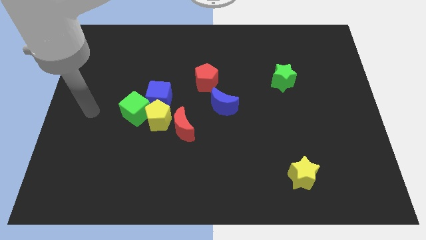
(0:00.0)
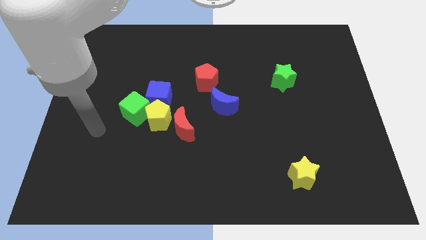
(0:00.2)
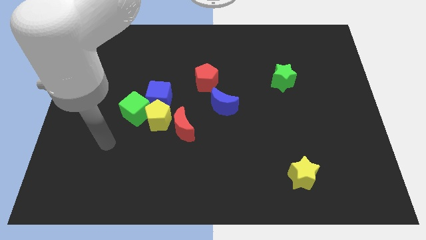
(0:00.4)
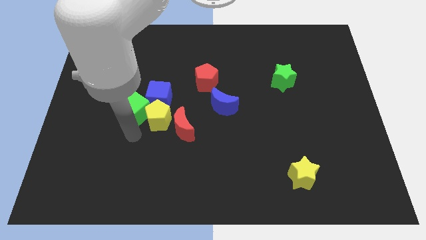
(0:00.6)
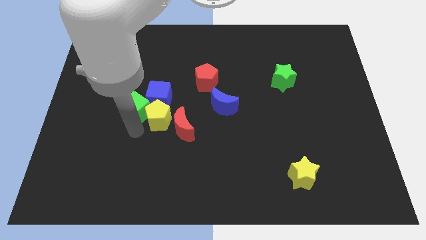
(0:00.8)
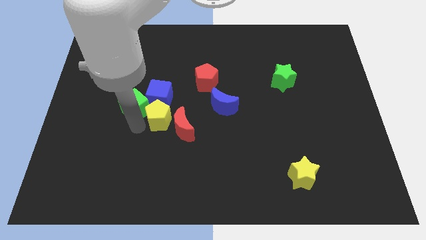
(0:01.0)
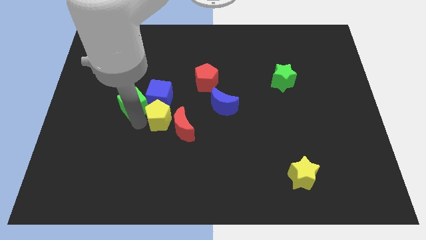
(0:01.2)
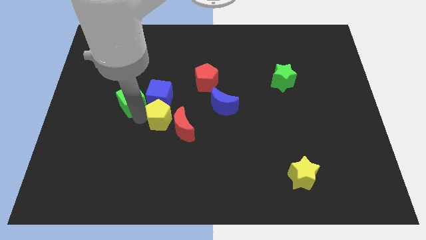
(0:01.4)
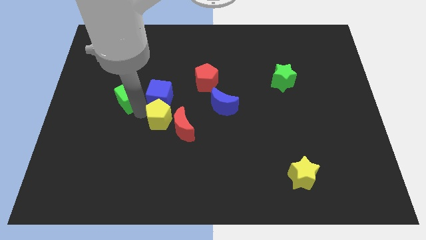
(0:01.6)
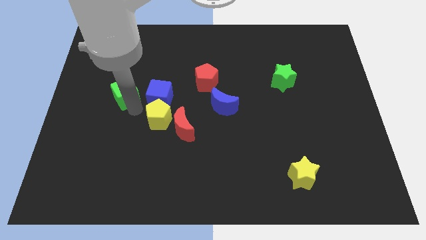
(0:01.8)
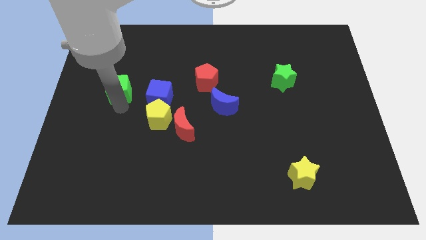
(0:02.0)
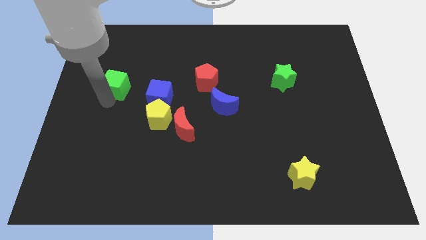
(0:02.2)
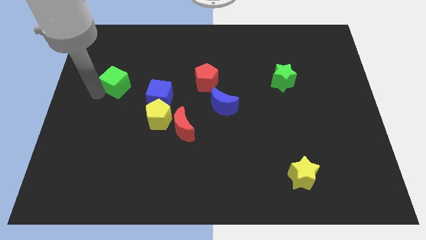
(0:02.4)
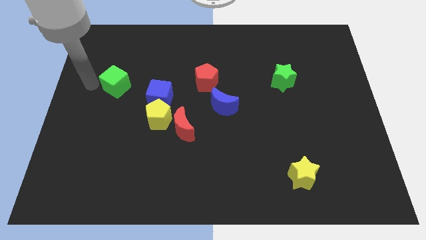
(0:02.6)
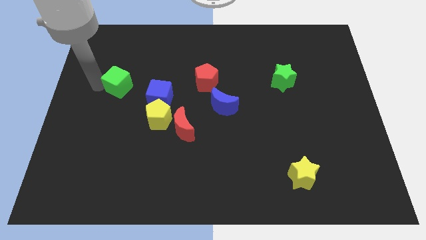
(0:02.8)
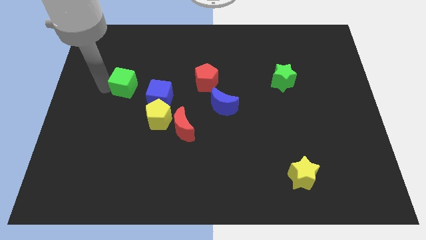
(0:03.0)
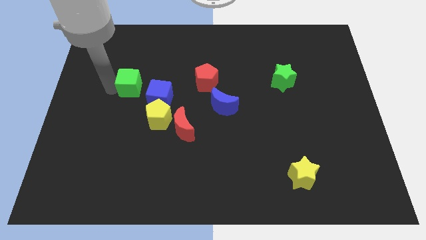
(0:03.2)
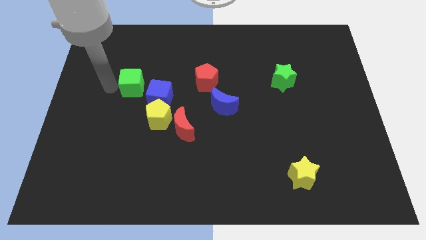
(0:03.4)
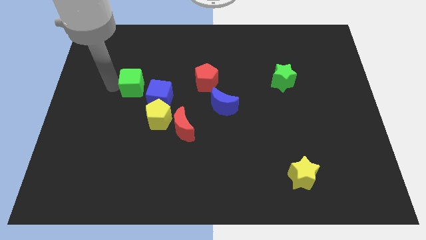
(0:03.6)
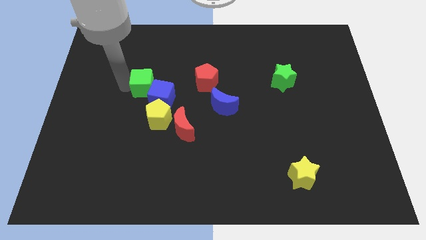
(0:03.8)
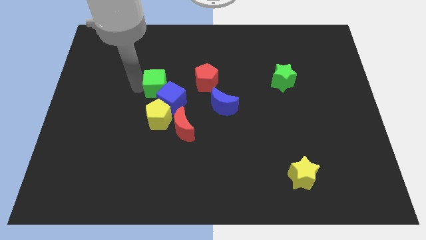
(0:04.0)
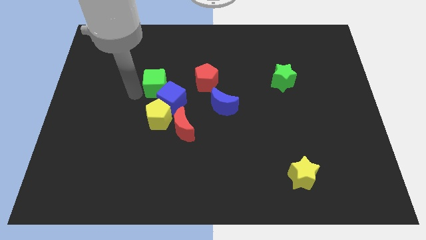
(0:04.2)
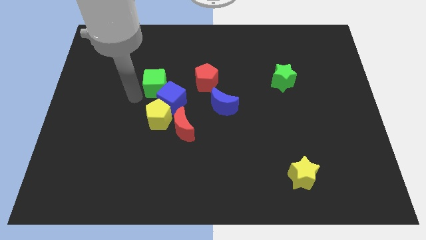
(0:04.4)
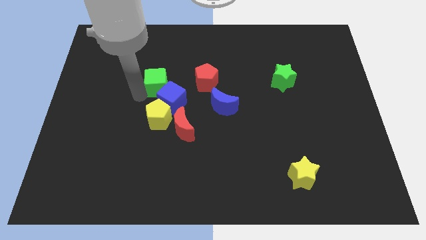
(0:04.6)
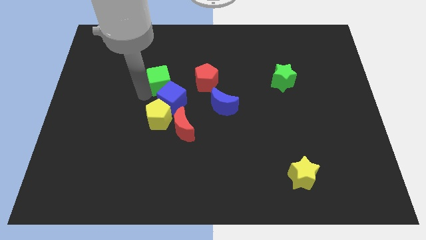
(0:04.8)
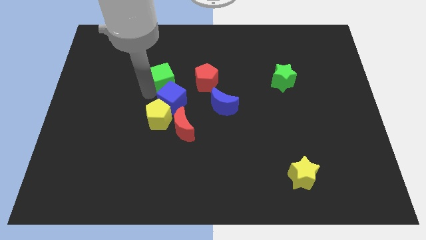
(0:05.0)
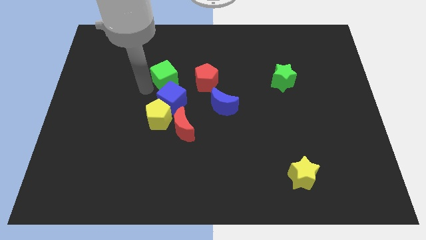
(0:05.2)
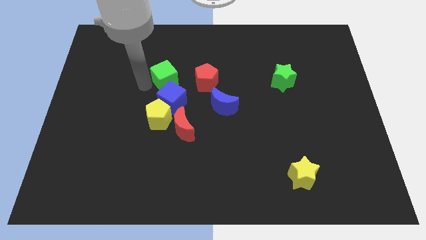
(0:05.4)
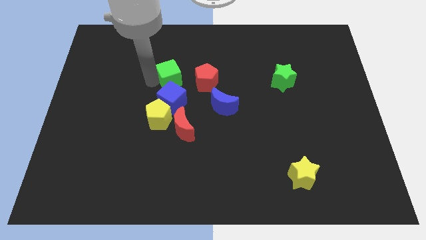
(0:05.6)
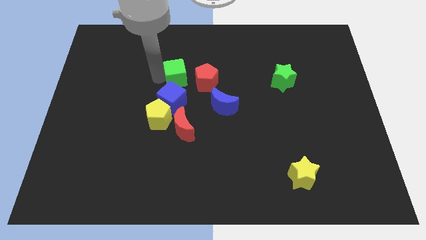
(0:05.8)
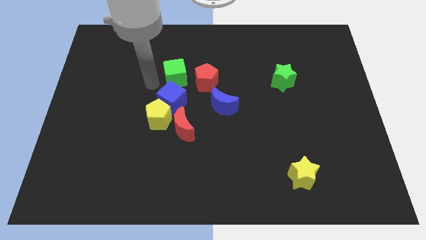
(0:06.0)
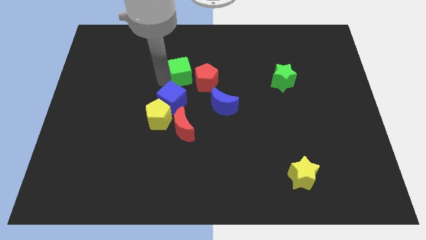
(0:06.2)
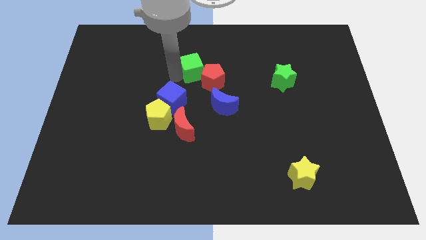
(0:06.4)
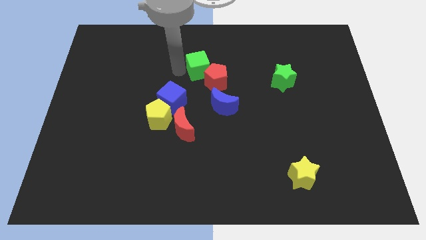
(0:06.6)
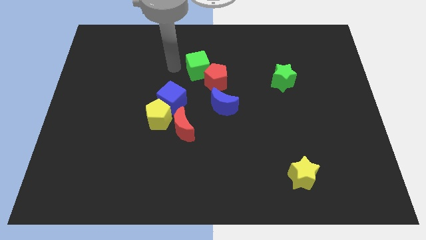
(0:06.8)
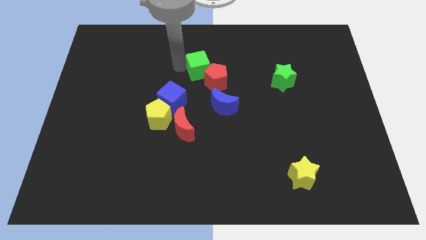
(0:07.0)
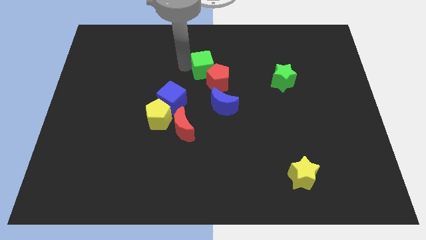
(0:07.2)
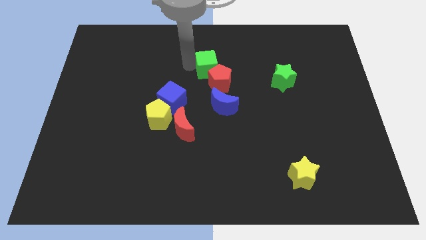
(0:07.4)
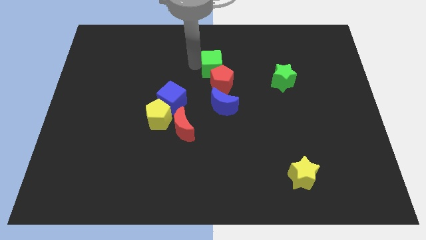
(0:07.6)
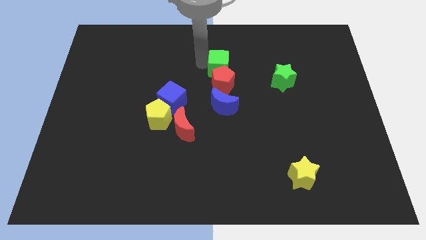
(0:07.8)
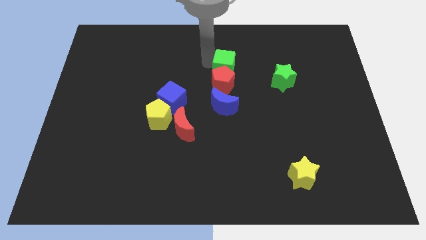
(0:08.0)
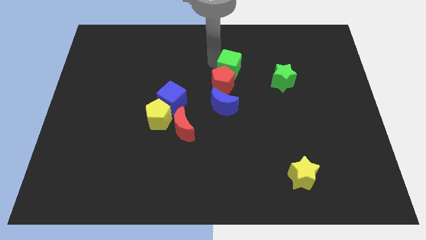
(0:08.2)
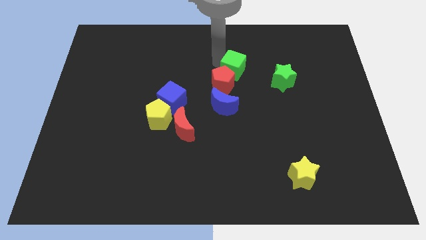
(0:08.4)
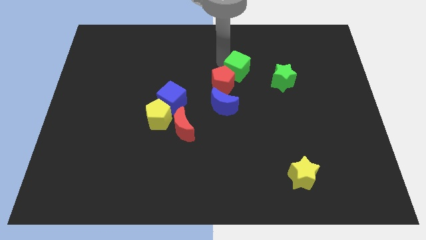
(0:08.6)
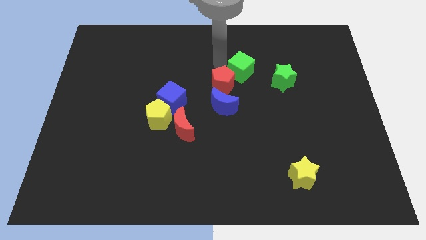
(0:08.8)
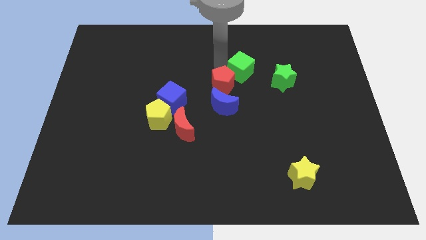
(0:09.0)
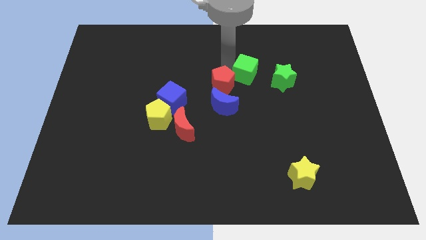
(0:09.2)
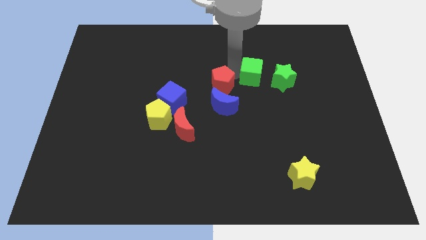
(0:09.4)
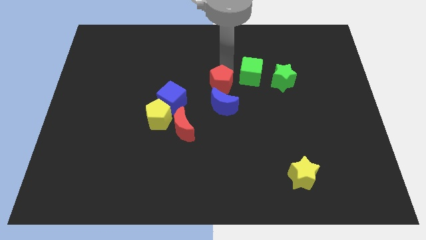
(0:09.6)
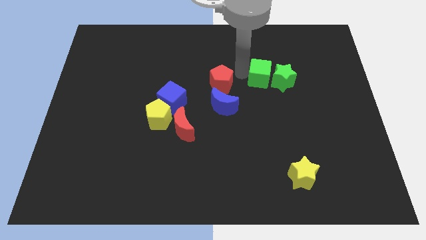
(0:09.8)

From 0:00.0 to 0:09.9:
put the green cube towards the green star

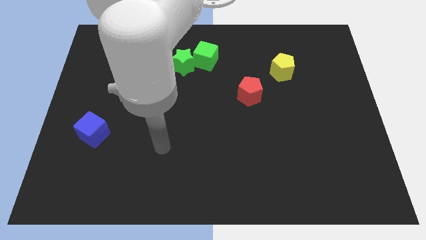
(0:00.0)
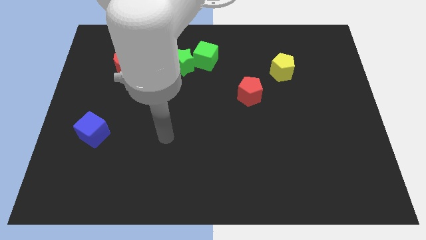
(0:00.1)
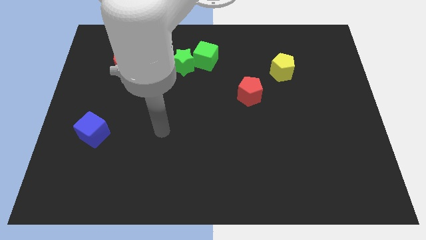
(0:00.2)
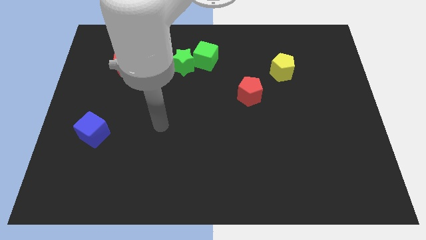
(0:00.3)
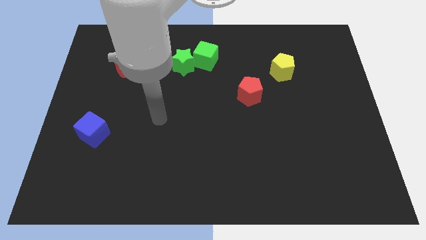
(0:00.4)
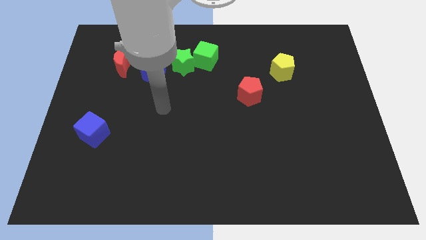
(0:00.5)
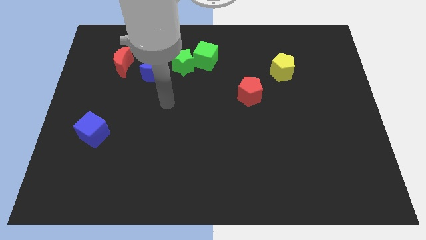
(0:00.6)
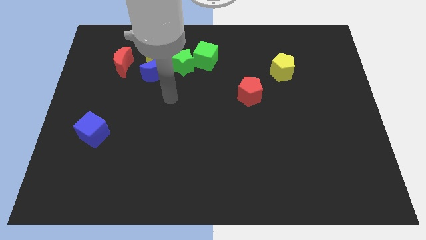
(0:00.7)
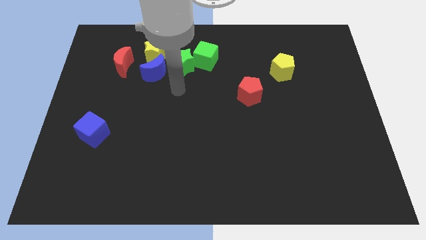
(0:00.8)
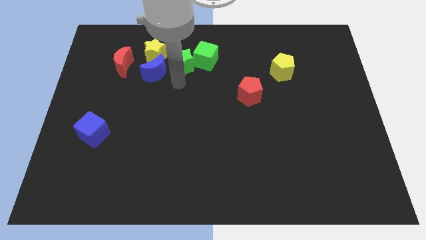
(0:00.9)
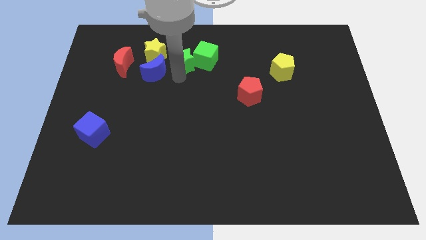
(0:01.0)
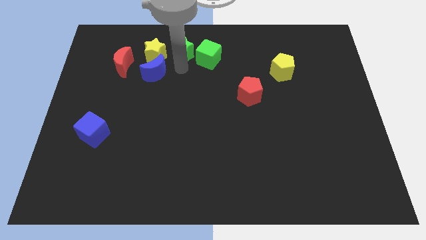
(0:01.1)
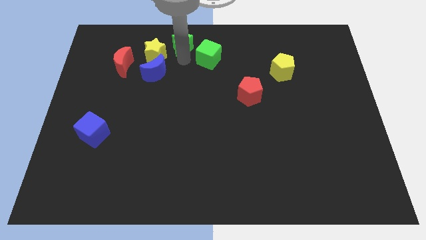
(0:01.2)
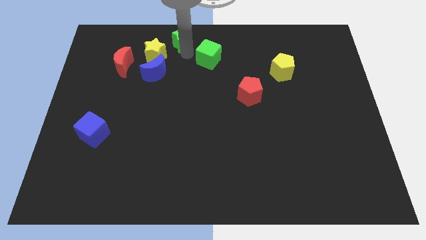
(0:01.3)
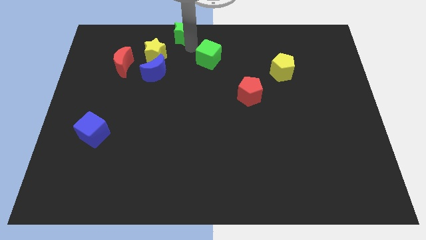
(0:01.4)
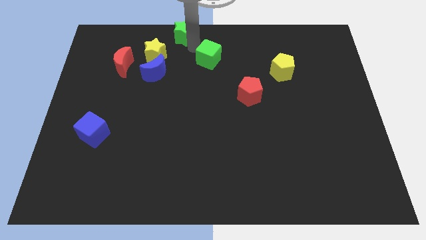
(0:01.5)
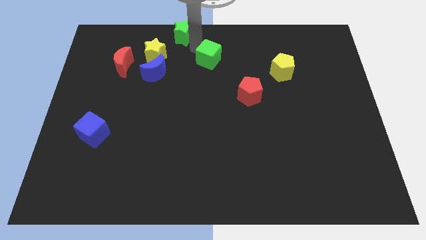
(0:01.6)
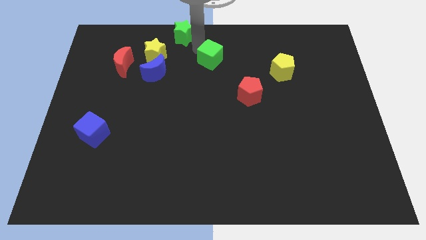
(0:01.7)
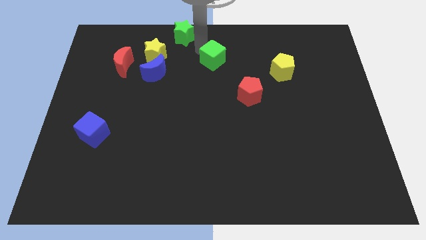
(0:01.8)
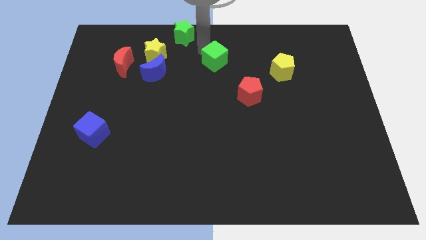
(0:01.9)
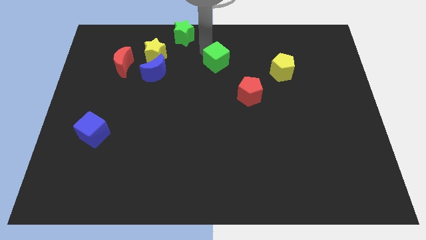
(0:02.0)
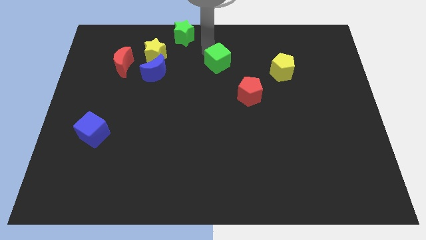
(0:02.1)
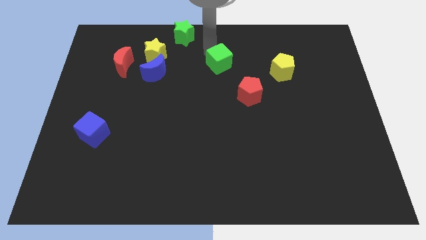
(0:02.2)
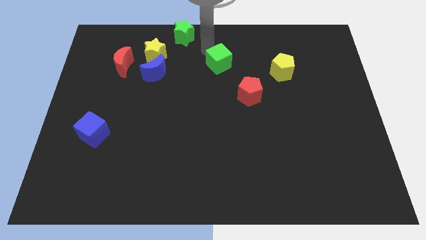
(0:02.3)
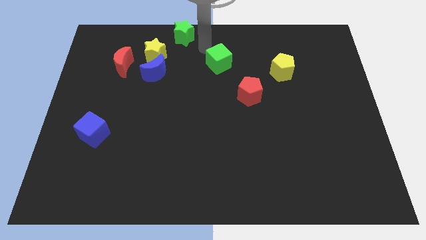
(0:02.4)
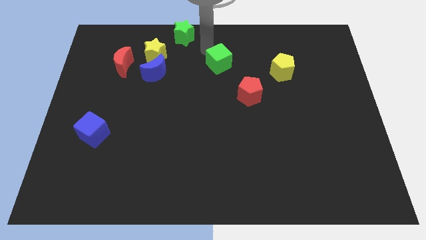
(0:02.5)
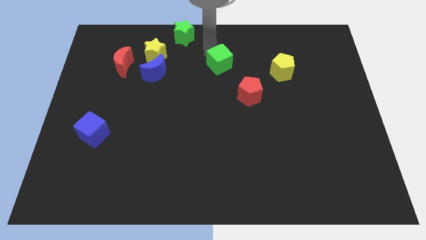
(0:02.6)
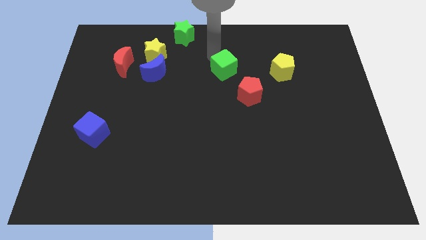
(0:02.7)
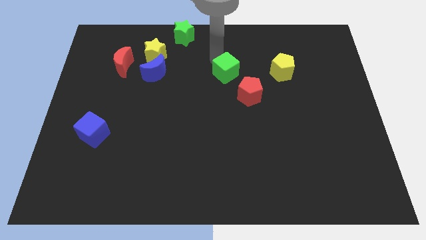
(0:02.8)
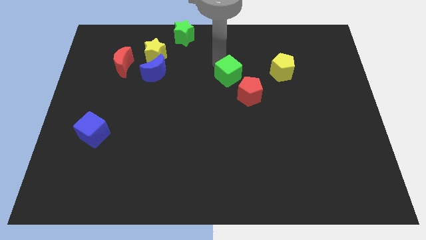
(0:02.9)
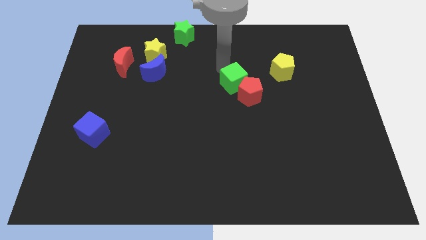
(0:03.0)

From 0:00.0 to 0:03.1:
move the green cube towards the red pentagon
